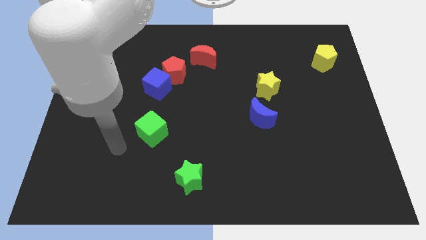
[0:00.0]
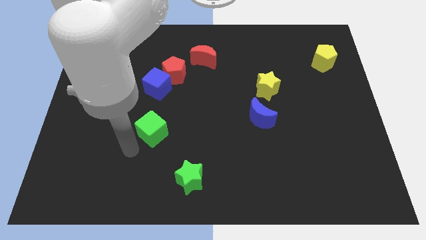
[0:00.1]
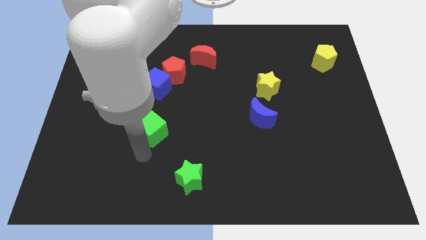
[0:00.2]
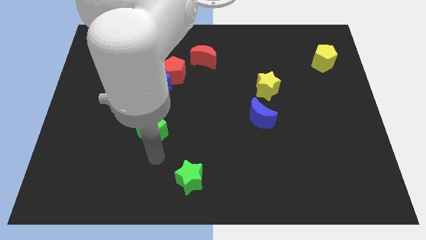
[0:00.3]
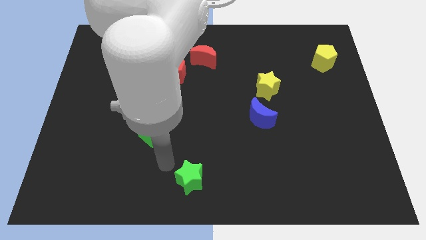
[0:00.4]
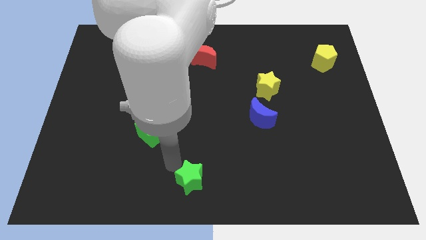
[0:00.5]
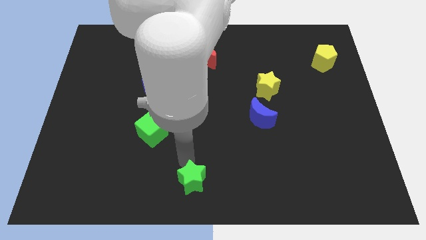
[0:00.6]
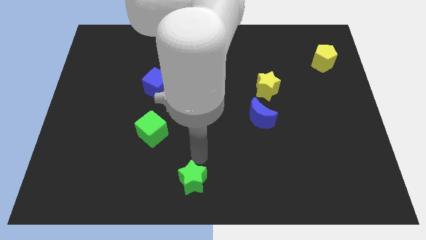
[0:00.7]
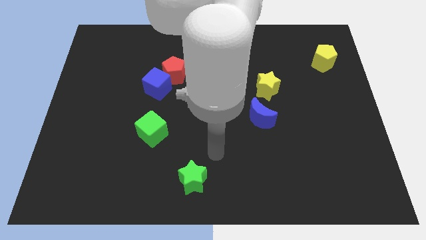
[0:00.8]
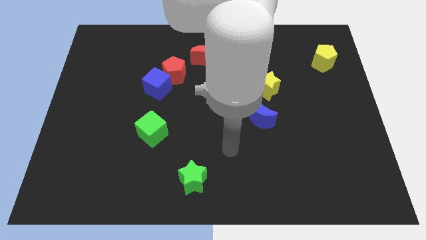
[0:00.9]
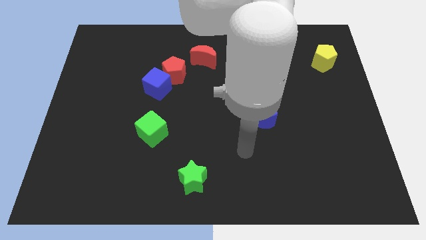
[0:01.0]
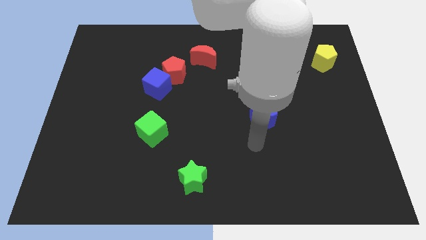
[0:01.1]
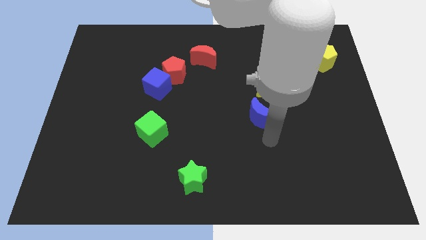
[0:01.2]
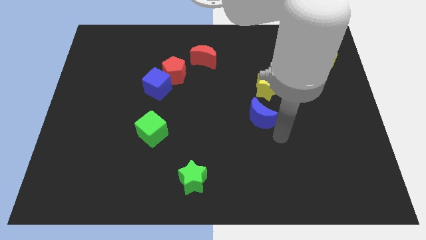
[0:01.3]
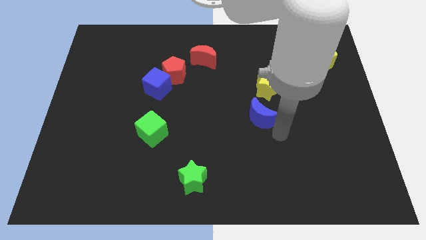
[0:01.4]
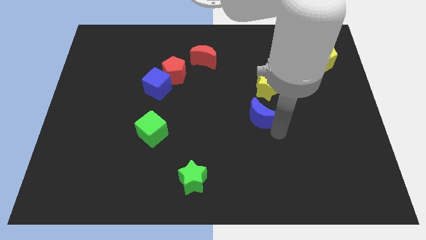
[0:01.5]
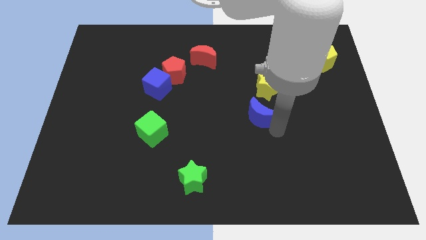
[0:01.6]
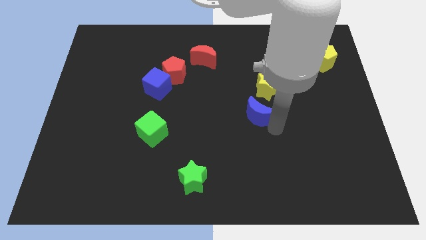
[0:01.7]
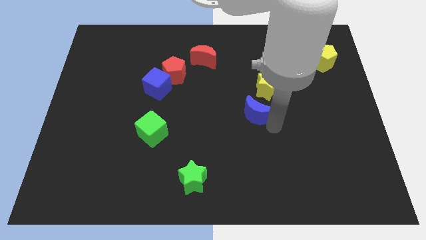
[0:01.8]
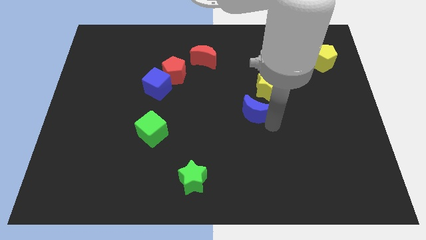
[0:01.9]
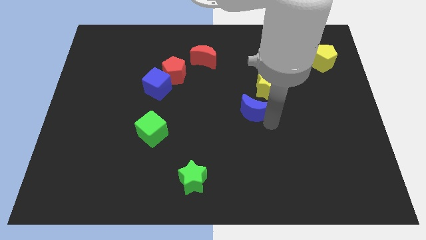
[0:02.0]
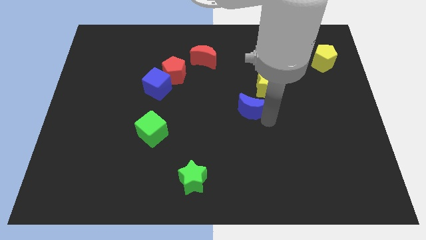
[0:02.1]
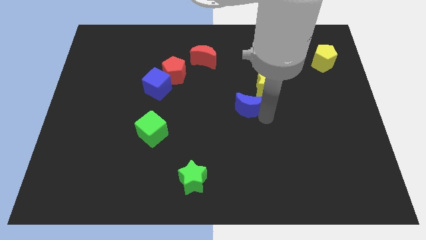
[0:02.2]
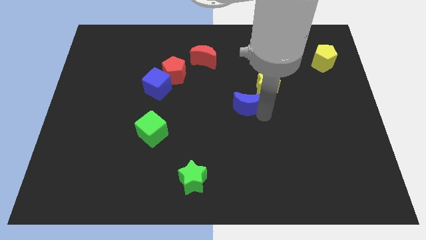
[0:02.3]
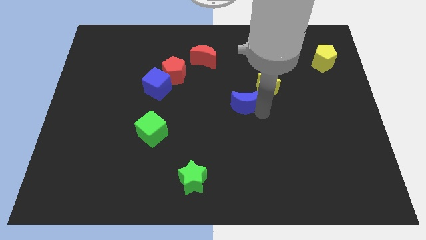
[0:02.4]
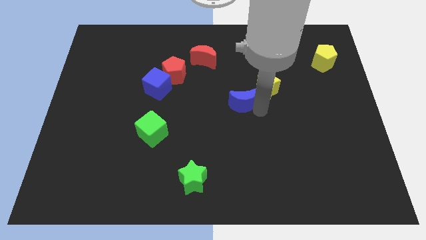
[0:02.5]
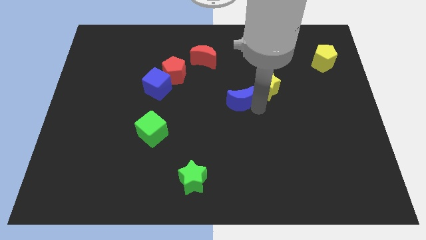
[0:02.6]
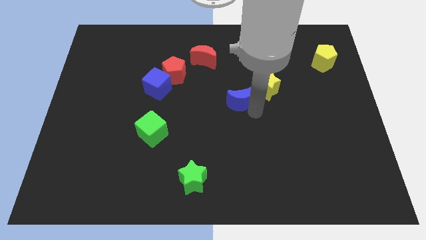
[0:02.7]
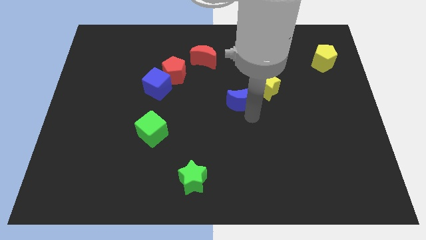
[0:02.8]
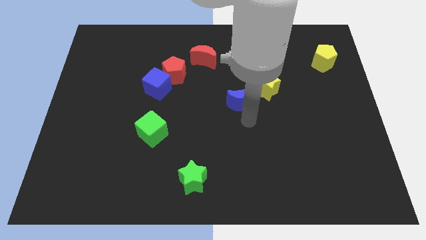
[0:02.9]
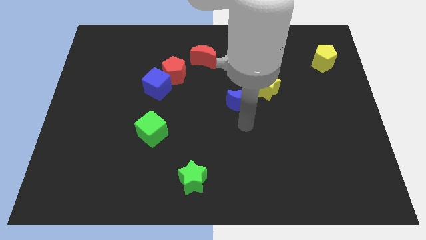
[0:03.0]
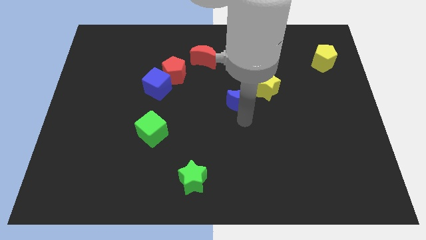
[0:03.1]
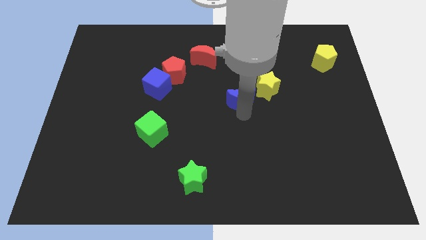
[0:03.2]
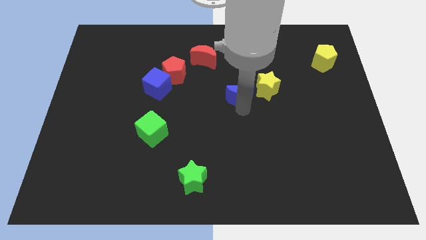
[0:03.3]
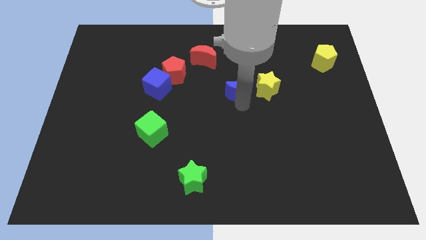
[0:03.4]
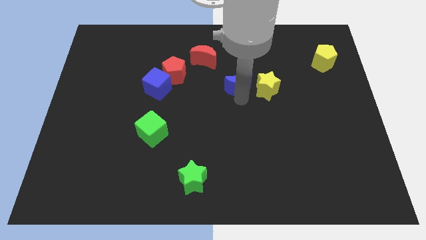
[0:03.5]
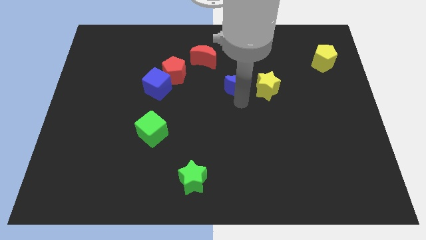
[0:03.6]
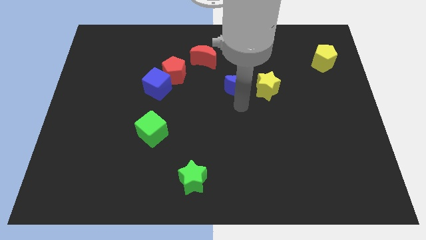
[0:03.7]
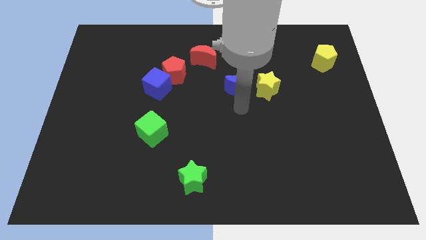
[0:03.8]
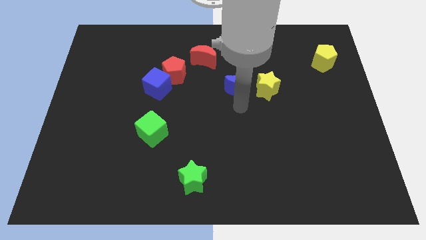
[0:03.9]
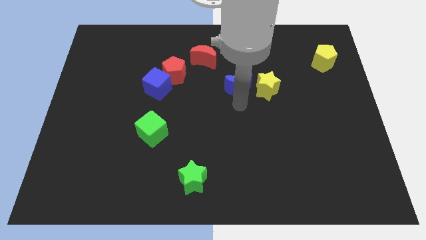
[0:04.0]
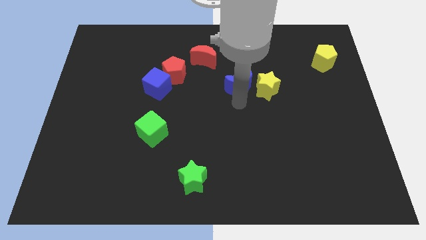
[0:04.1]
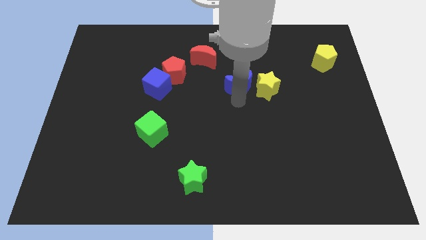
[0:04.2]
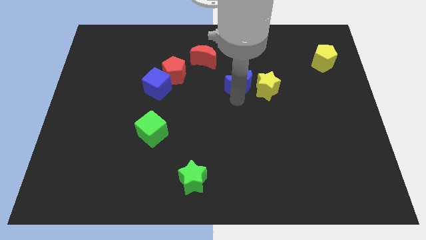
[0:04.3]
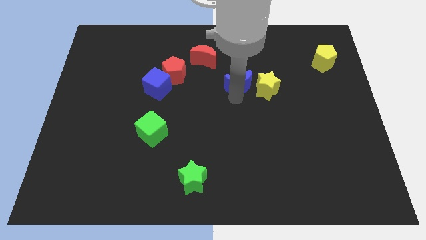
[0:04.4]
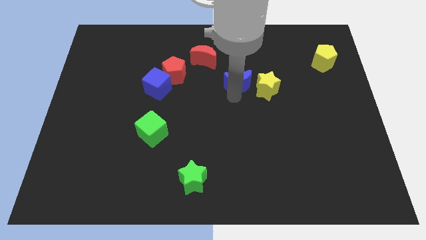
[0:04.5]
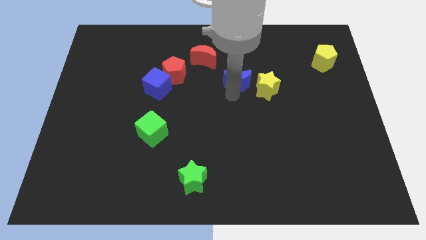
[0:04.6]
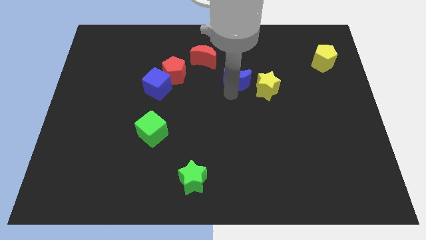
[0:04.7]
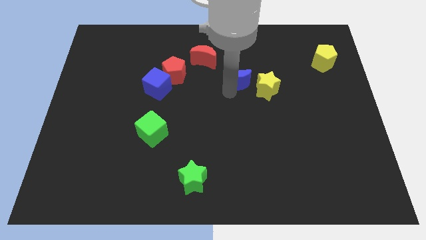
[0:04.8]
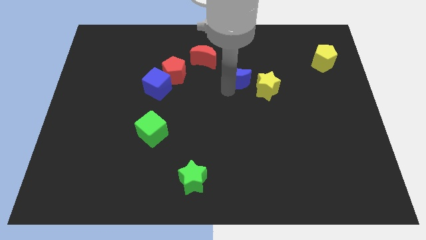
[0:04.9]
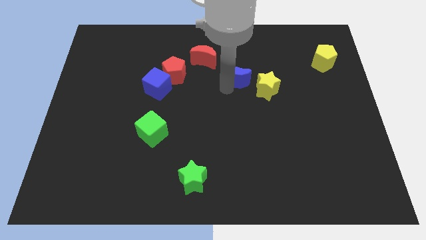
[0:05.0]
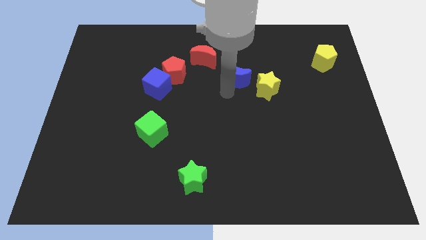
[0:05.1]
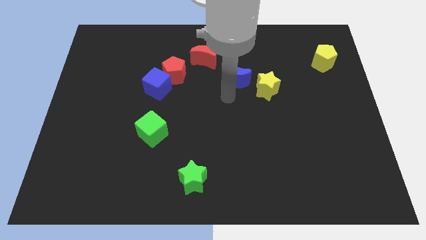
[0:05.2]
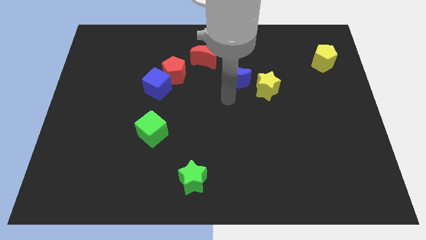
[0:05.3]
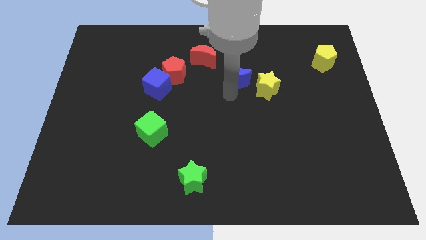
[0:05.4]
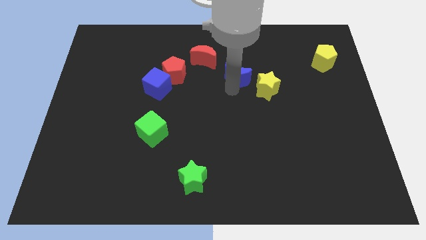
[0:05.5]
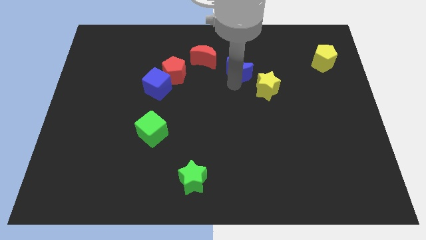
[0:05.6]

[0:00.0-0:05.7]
put the blue moon right of the red moon
